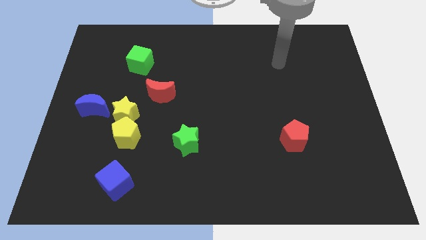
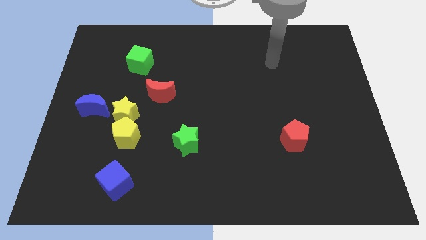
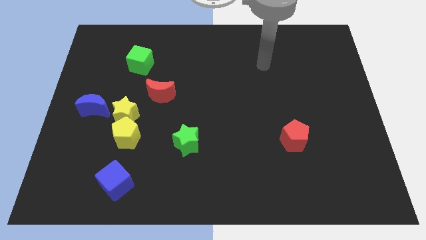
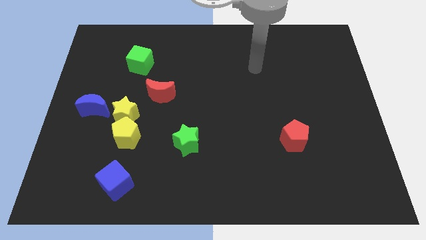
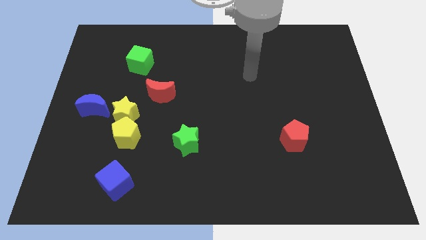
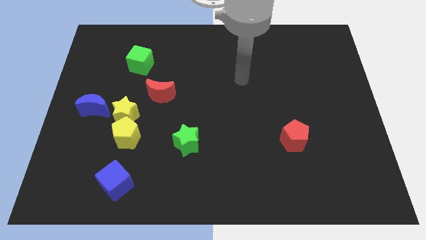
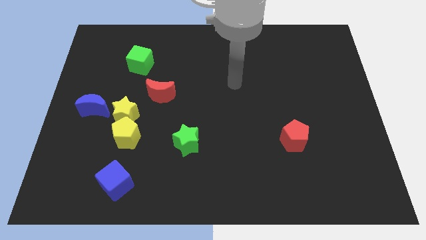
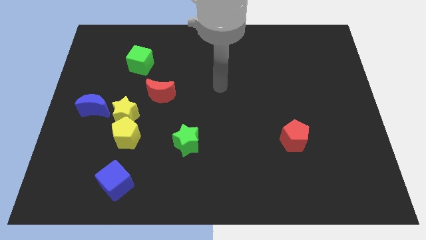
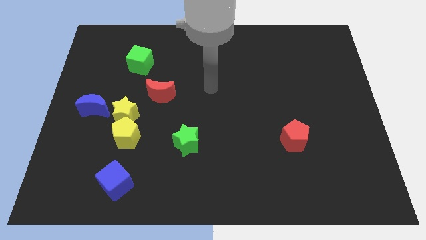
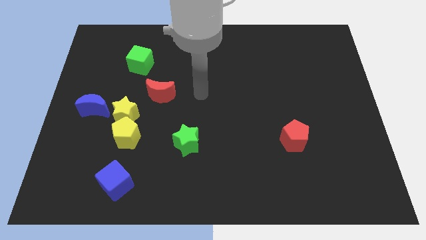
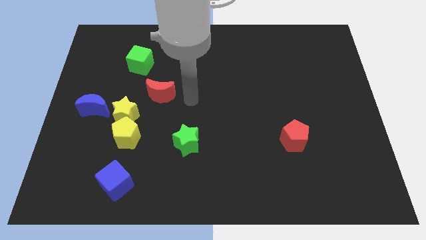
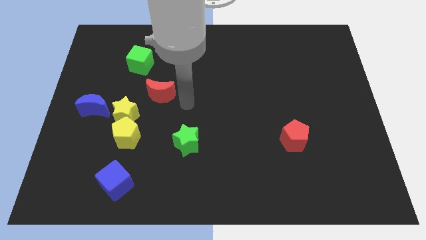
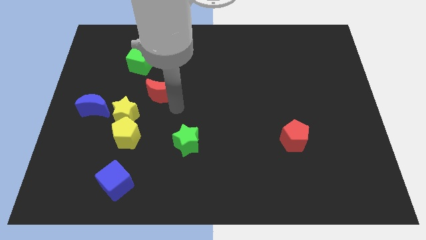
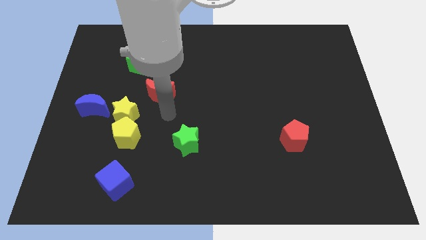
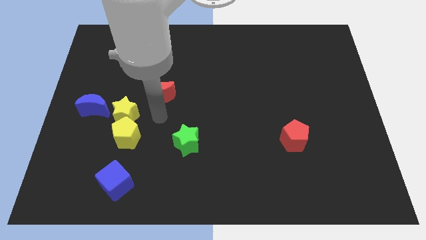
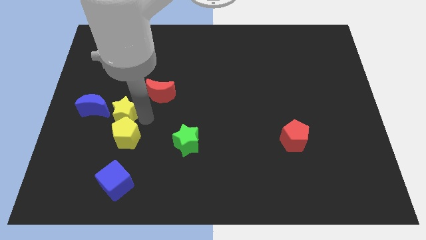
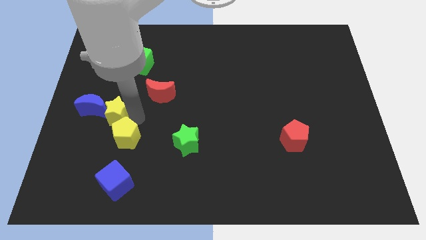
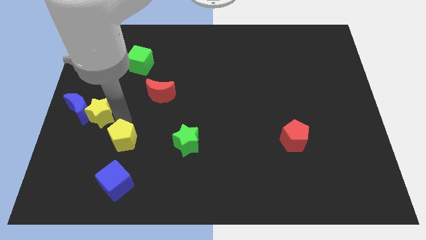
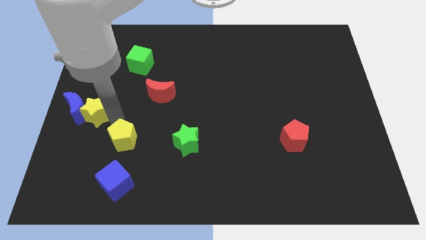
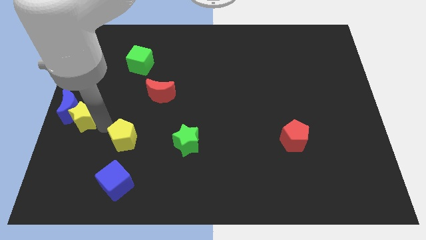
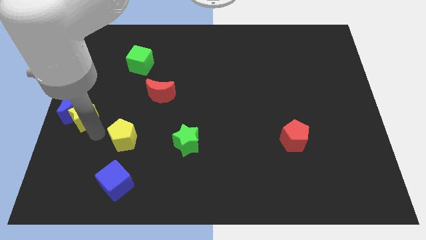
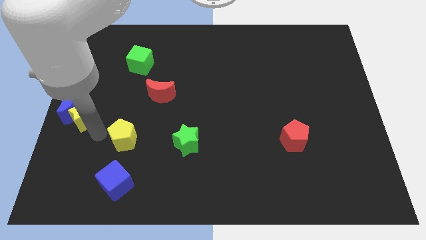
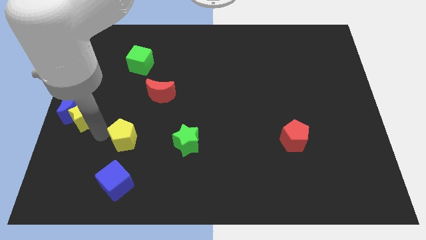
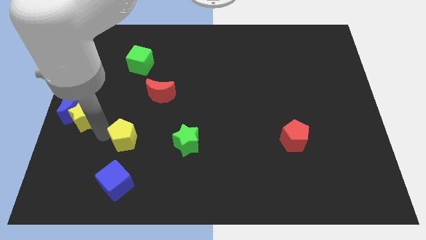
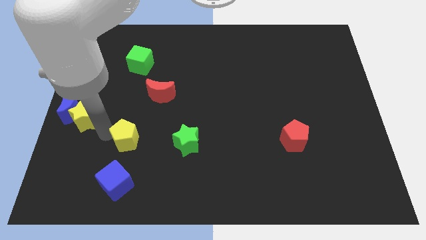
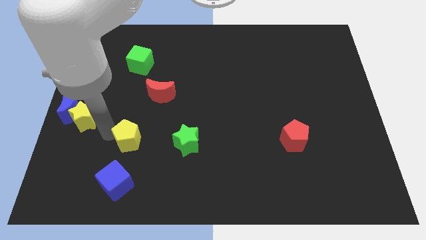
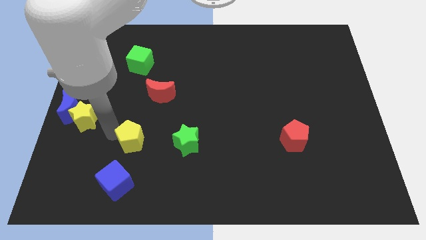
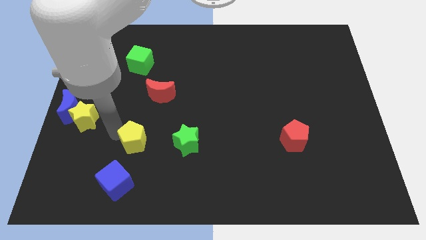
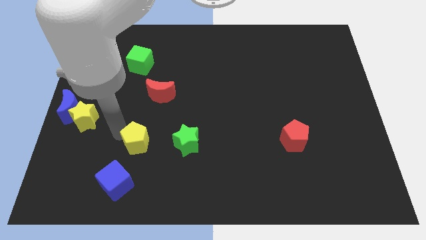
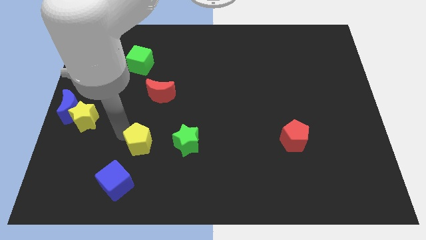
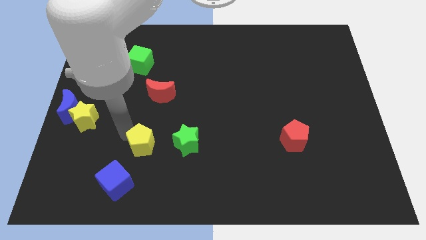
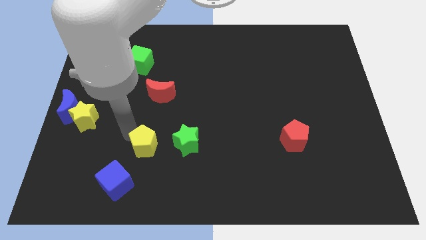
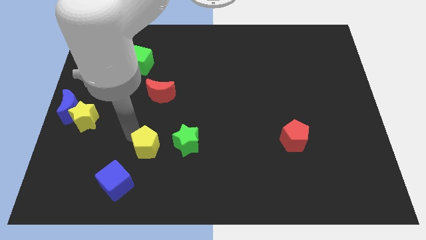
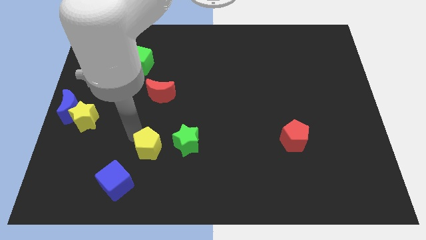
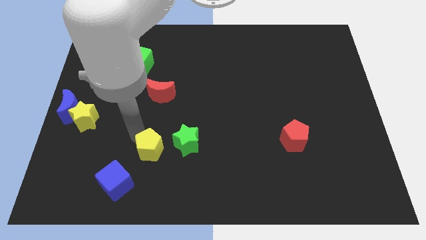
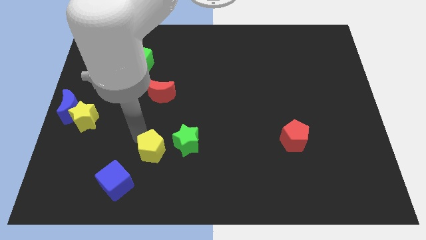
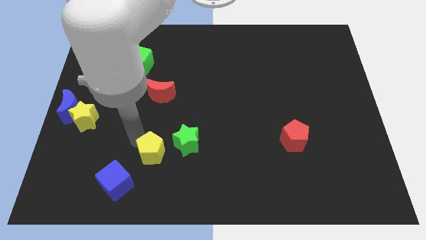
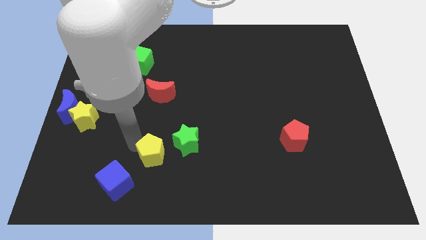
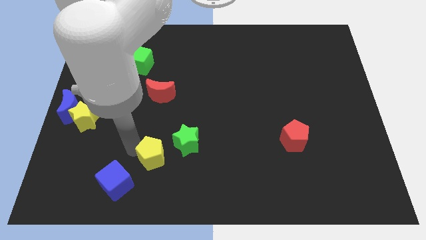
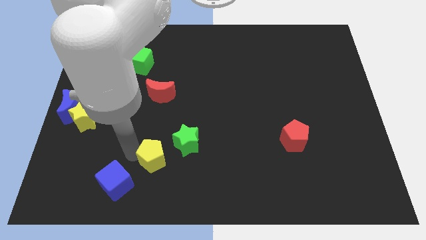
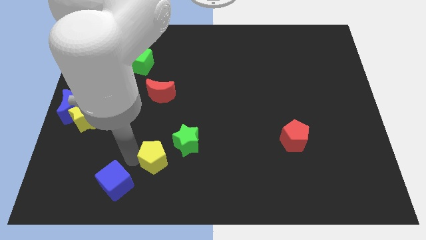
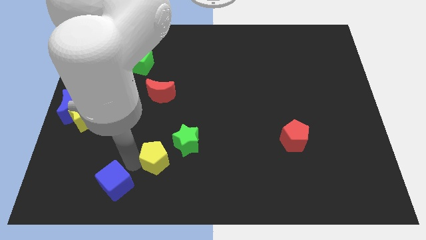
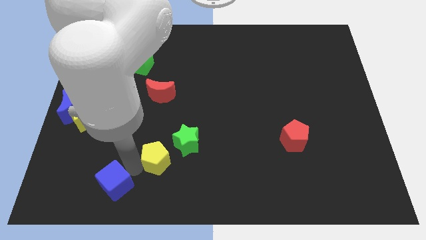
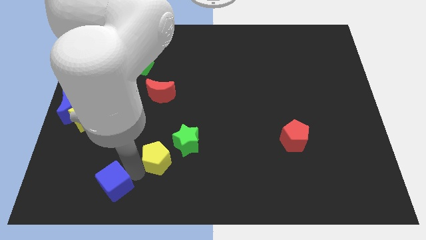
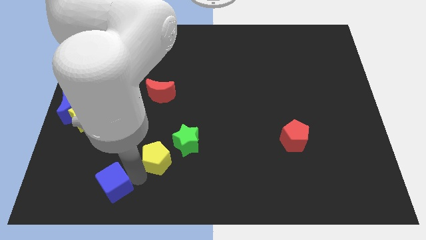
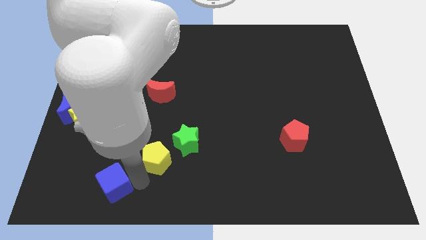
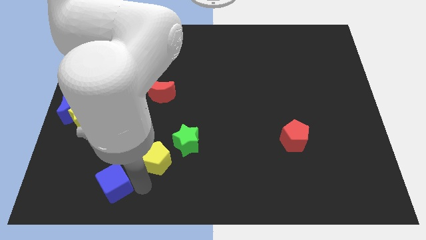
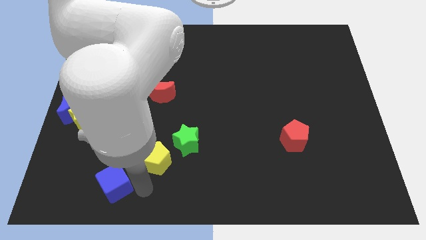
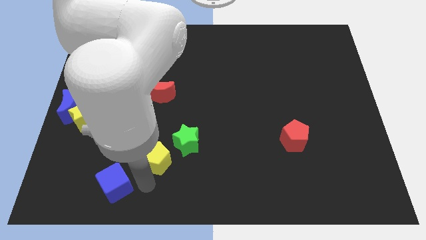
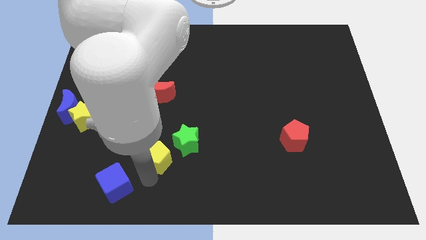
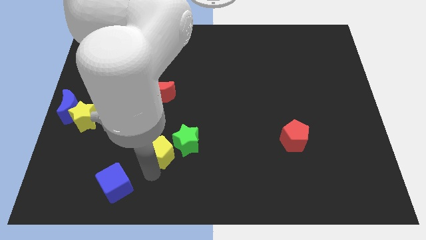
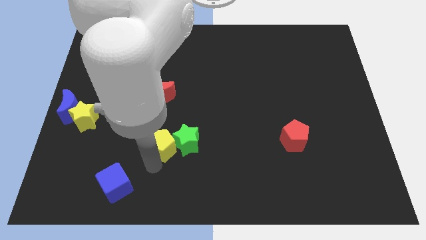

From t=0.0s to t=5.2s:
slide the yellow pentagon towards the green star

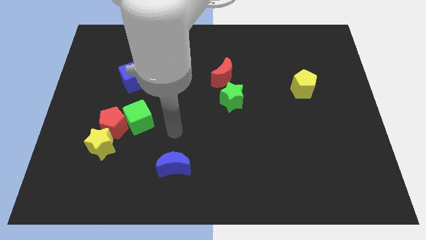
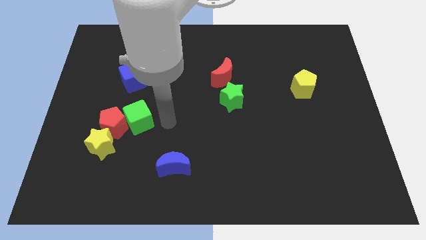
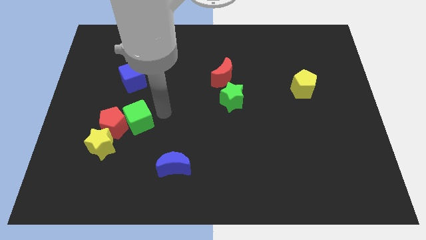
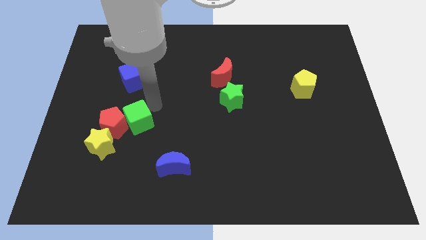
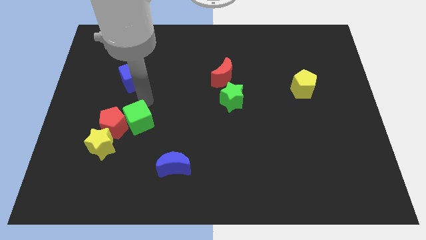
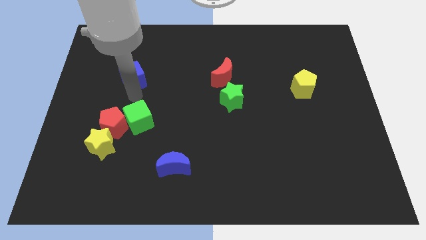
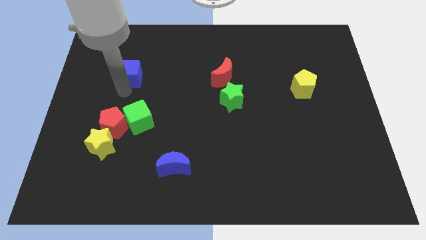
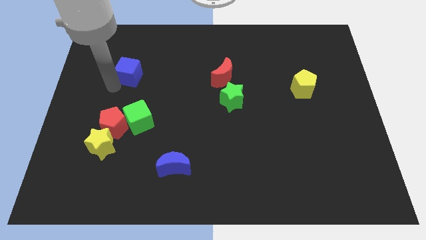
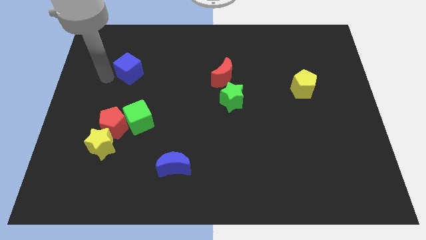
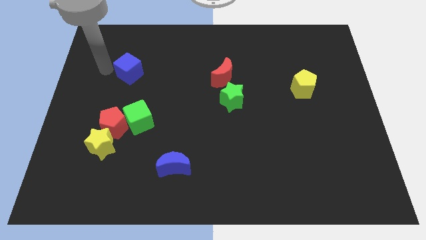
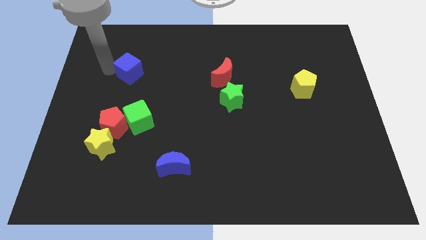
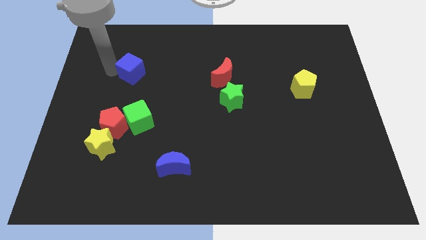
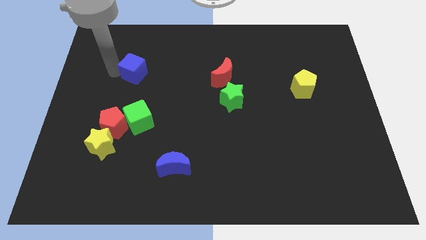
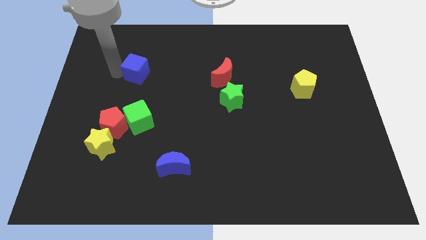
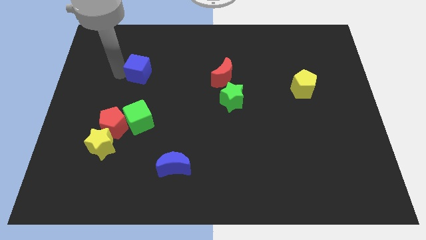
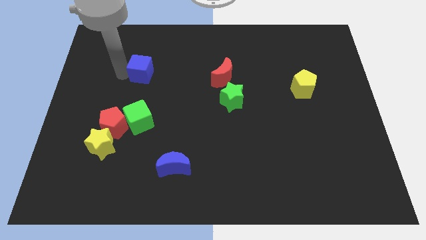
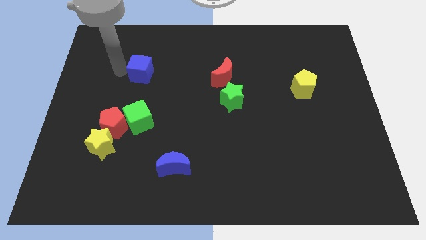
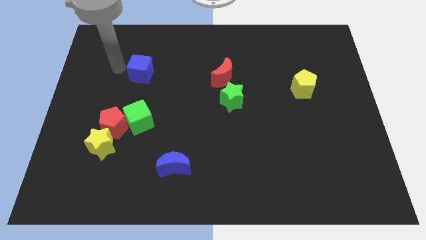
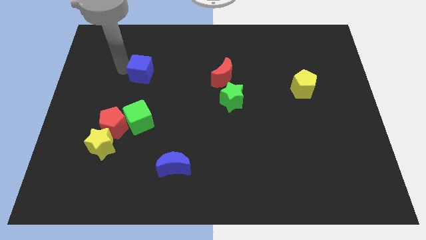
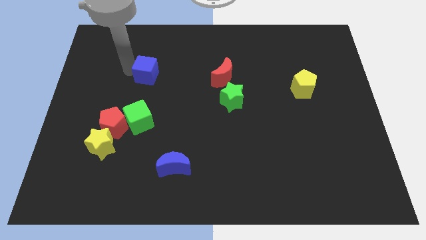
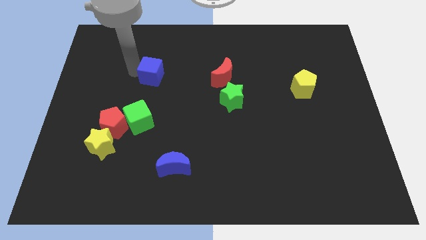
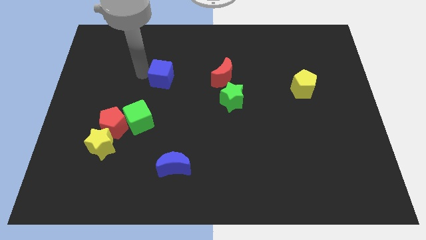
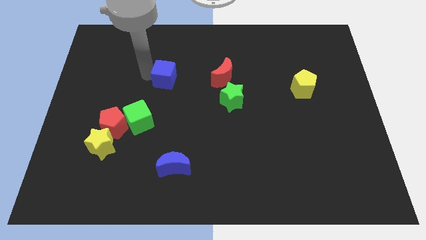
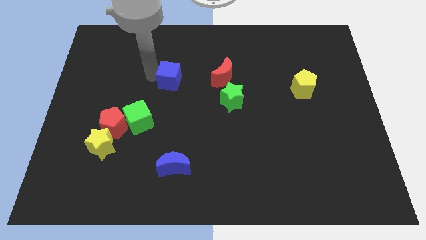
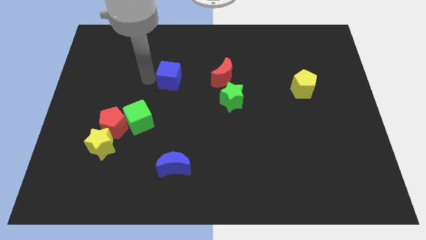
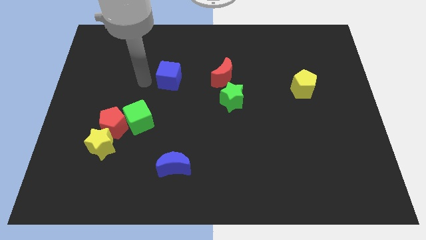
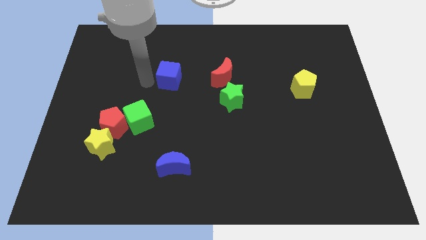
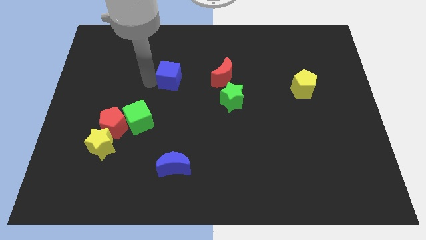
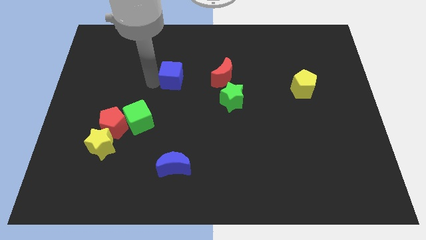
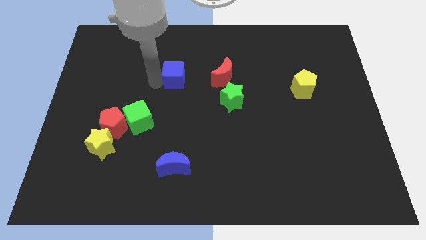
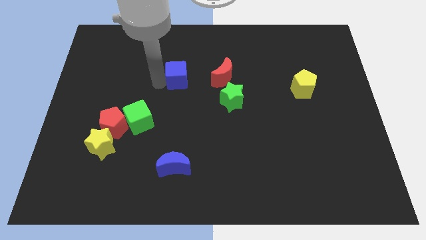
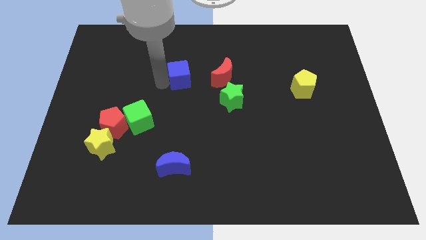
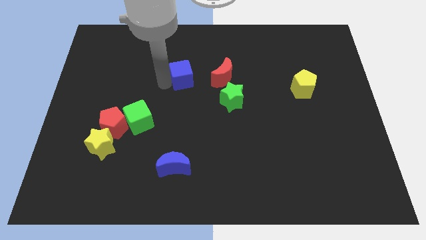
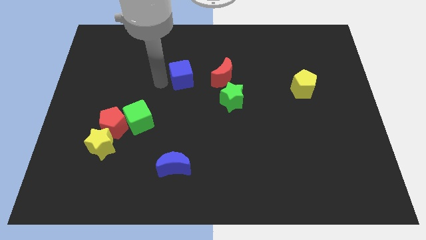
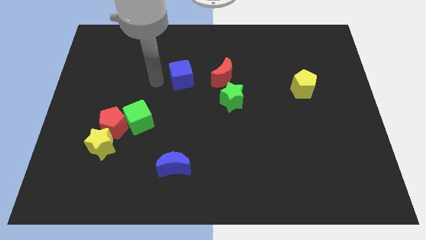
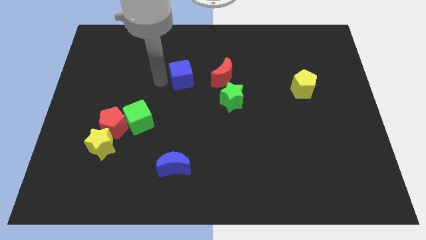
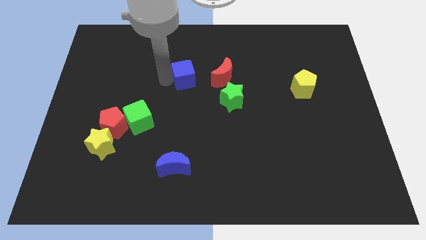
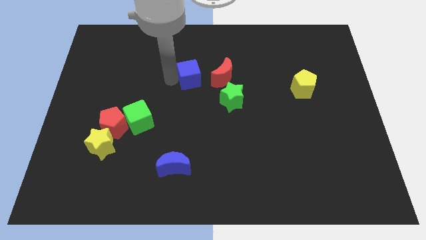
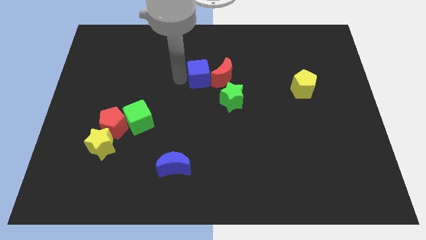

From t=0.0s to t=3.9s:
move the blue cube close to the red moon
